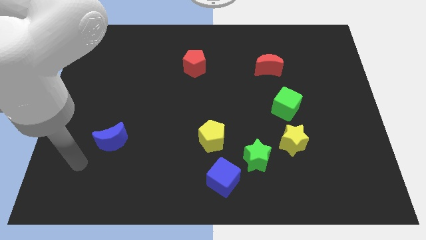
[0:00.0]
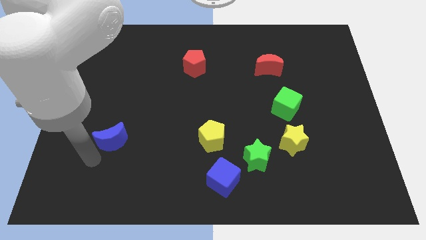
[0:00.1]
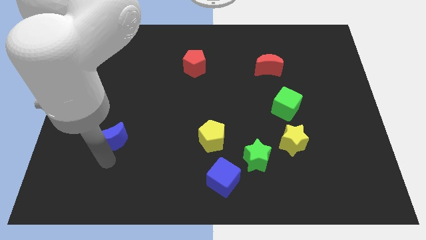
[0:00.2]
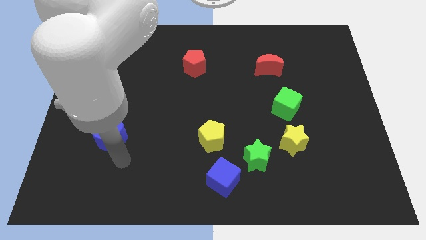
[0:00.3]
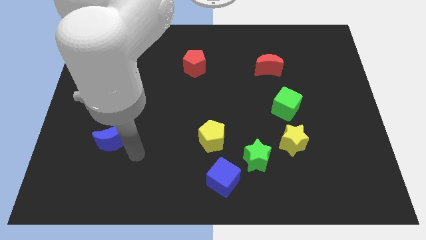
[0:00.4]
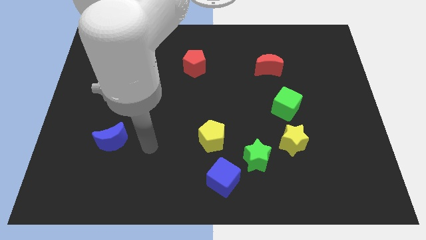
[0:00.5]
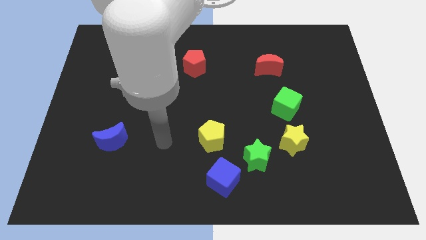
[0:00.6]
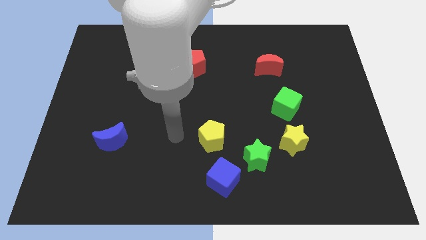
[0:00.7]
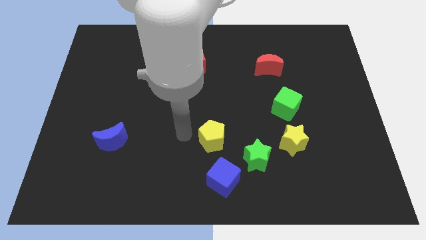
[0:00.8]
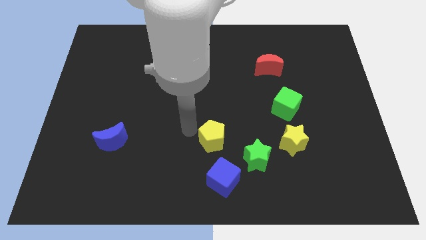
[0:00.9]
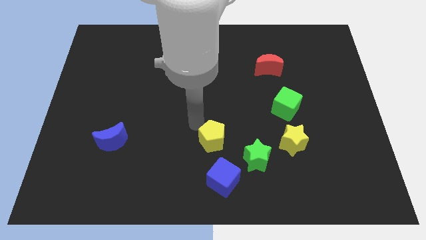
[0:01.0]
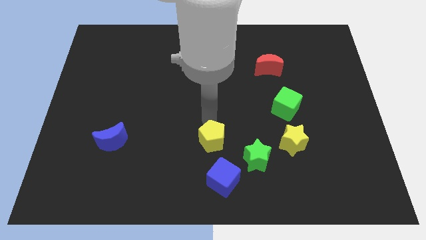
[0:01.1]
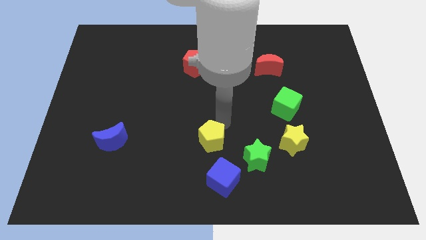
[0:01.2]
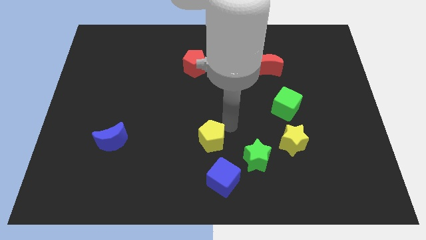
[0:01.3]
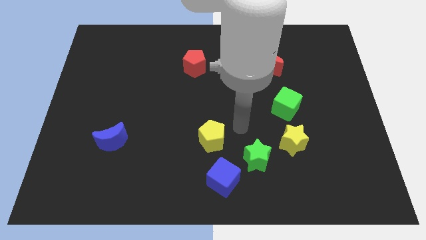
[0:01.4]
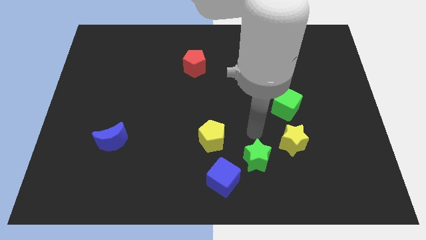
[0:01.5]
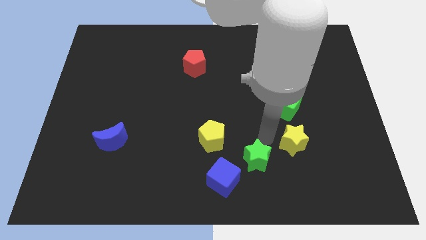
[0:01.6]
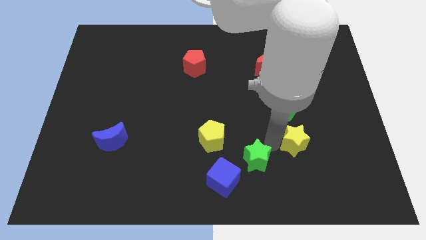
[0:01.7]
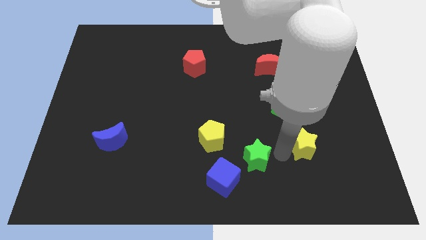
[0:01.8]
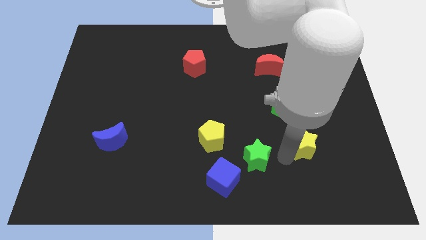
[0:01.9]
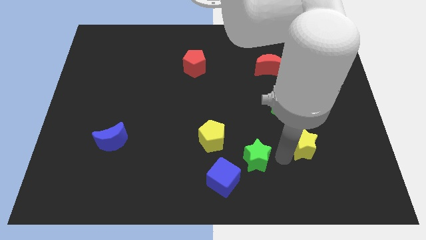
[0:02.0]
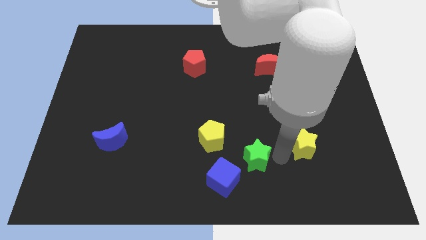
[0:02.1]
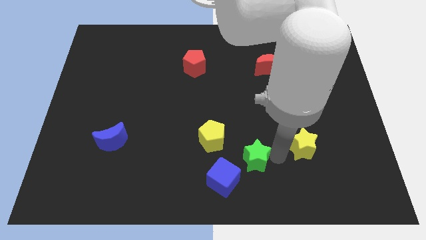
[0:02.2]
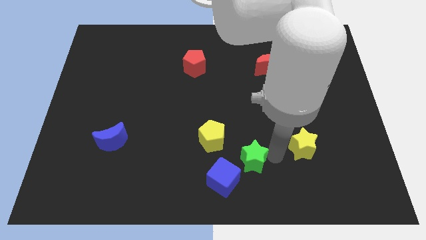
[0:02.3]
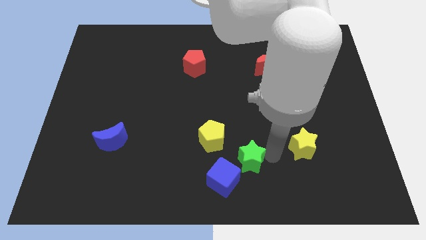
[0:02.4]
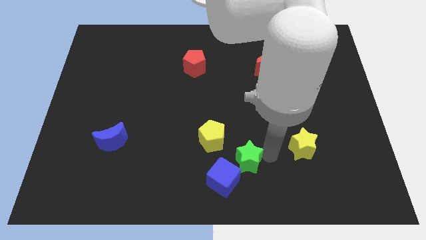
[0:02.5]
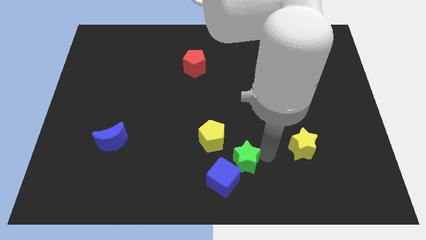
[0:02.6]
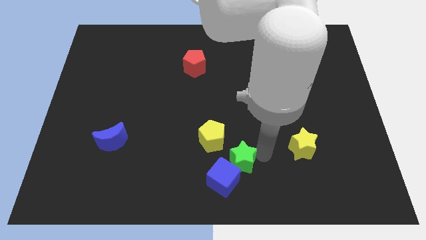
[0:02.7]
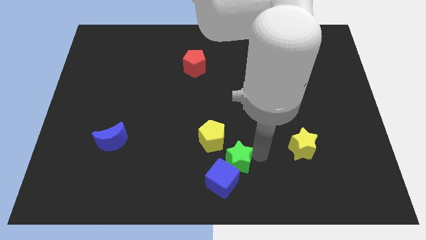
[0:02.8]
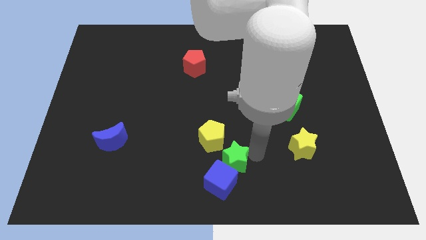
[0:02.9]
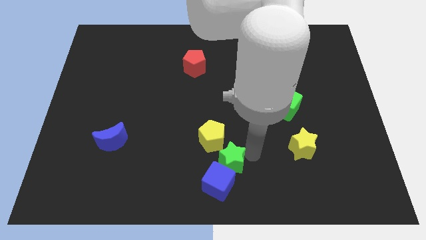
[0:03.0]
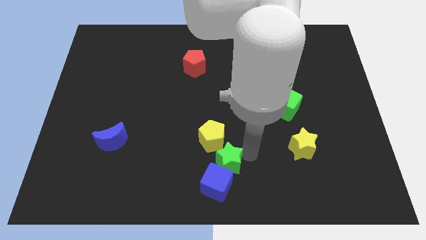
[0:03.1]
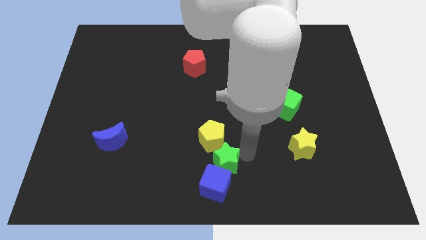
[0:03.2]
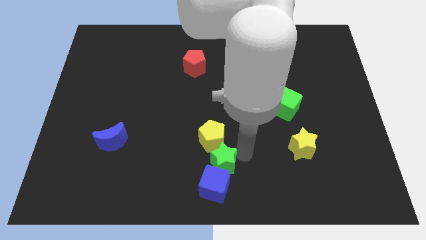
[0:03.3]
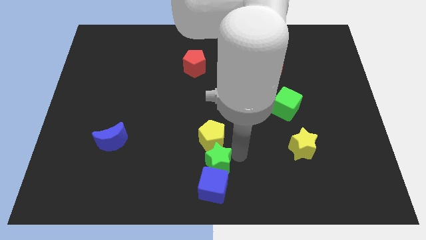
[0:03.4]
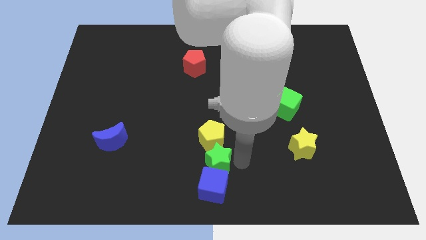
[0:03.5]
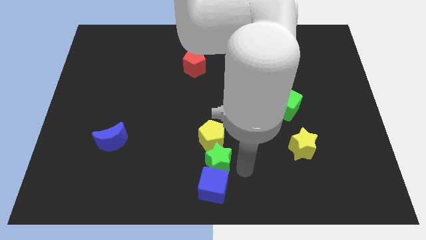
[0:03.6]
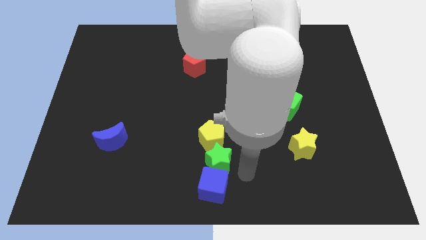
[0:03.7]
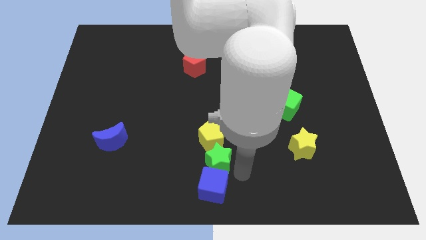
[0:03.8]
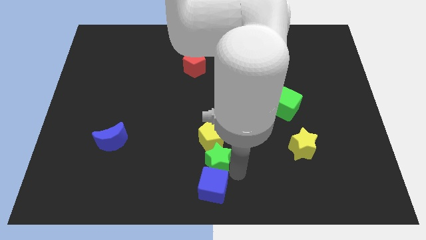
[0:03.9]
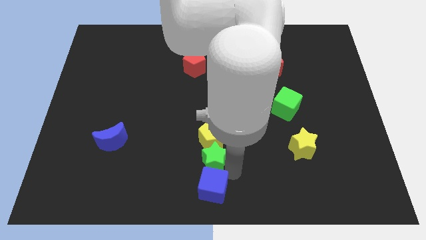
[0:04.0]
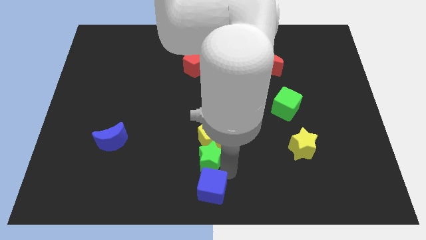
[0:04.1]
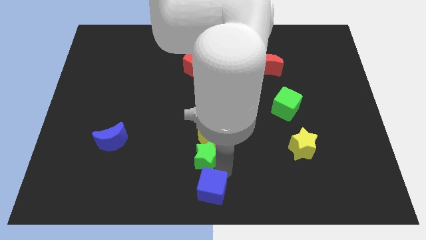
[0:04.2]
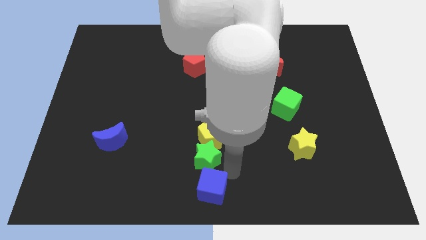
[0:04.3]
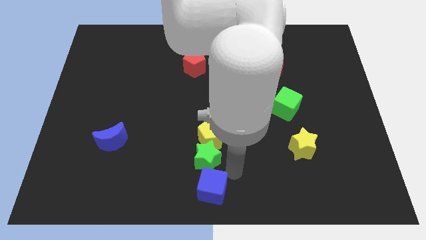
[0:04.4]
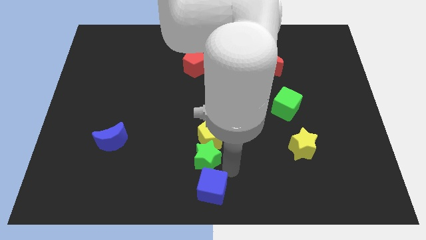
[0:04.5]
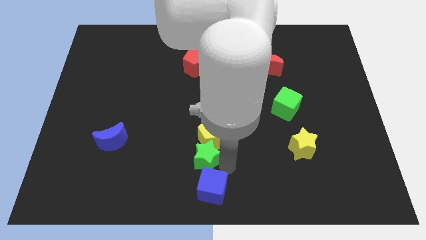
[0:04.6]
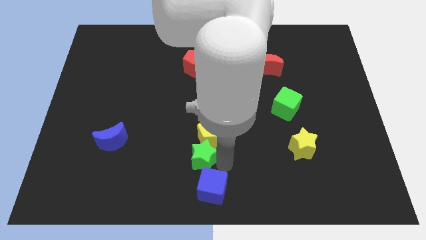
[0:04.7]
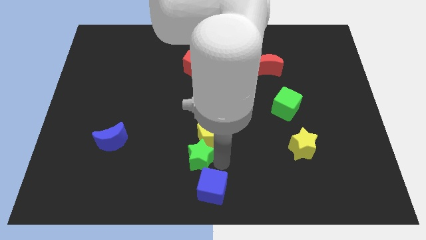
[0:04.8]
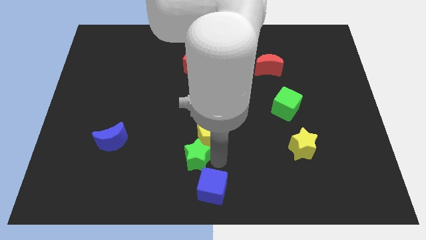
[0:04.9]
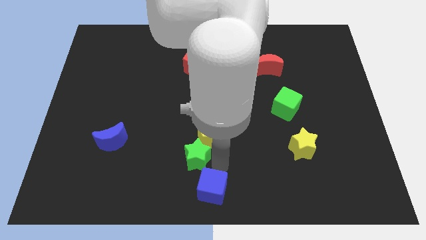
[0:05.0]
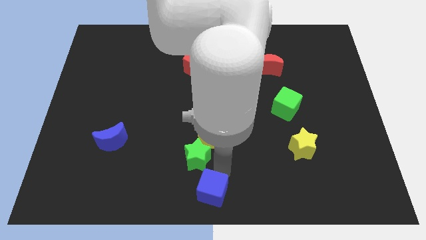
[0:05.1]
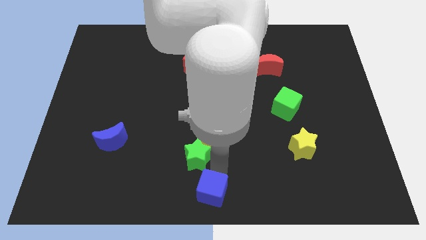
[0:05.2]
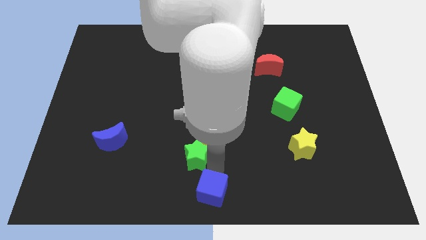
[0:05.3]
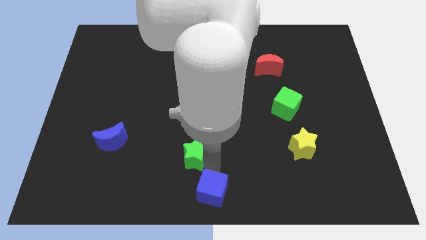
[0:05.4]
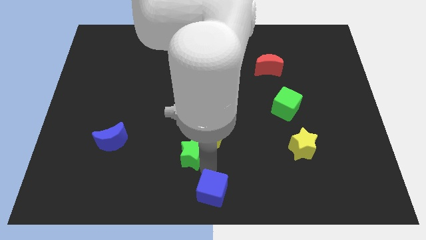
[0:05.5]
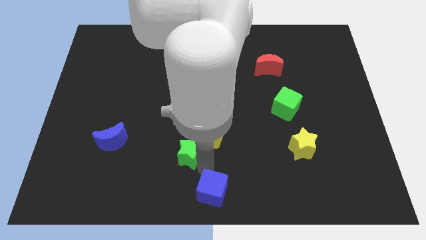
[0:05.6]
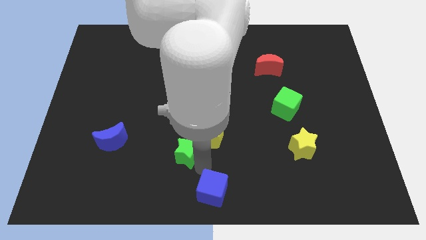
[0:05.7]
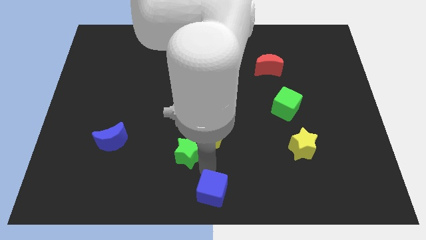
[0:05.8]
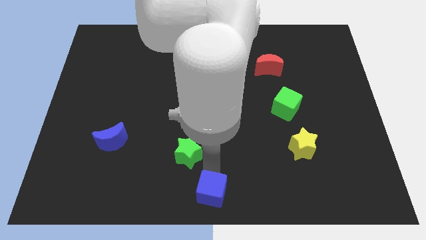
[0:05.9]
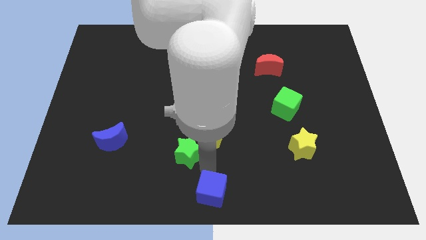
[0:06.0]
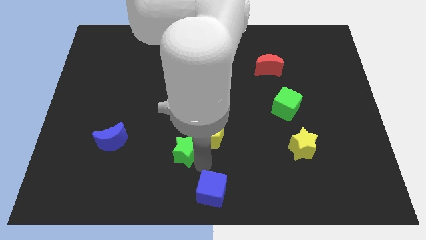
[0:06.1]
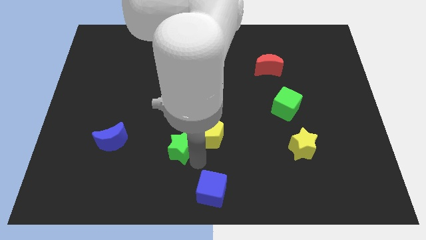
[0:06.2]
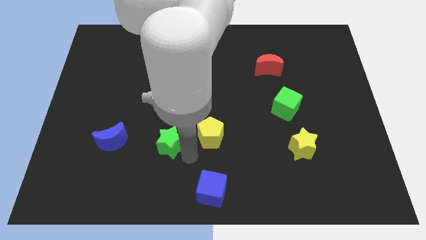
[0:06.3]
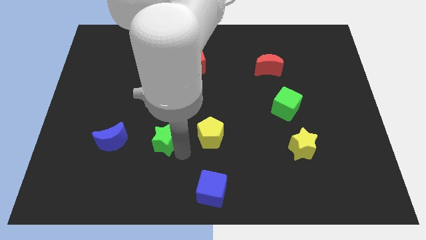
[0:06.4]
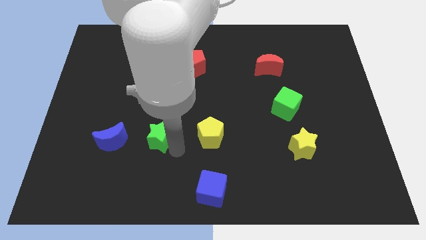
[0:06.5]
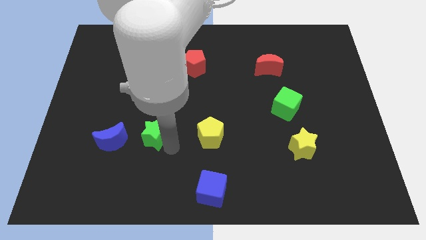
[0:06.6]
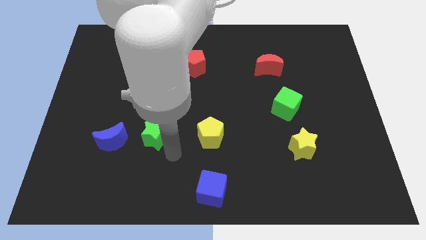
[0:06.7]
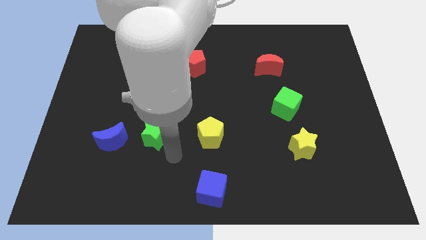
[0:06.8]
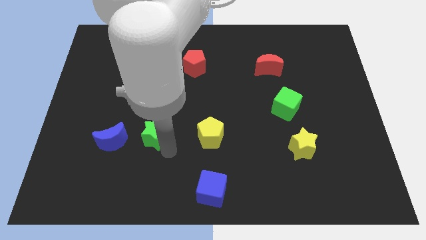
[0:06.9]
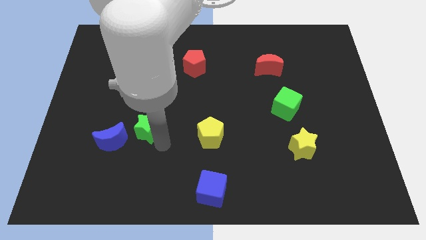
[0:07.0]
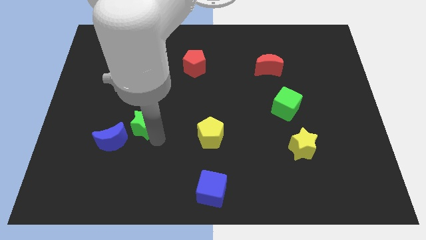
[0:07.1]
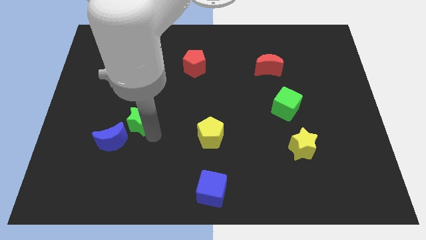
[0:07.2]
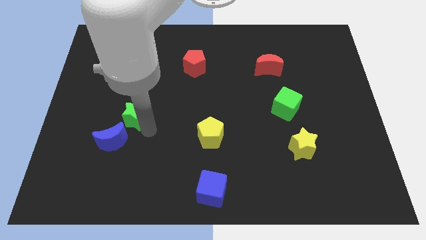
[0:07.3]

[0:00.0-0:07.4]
put the green star above the blue moon

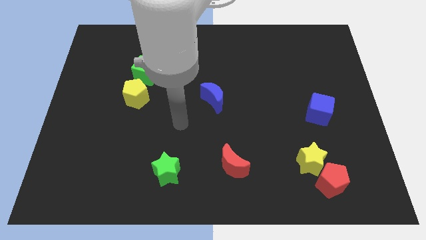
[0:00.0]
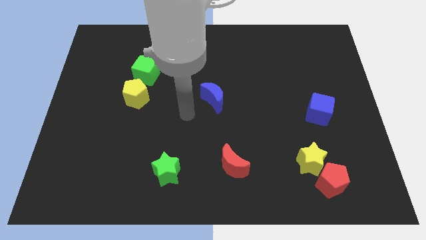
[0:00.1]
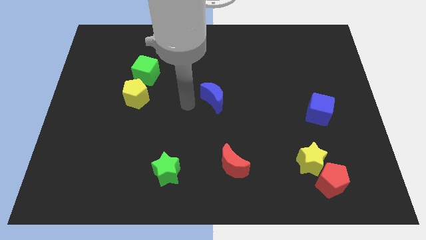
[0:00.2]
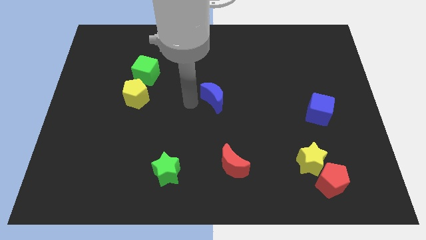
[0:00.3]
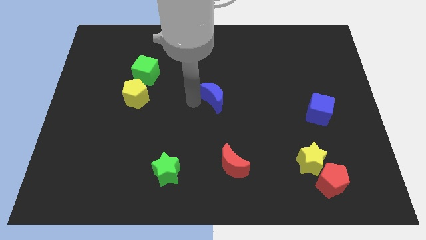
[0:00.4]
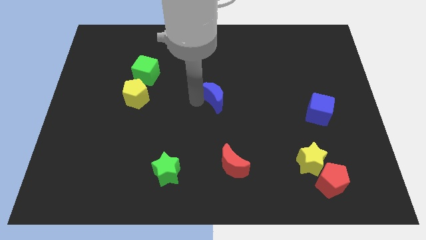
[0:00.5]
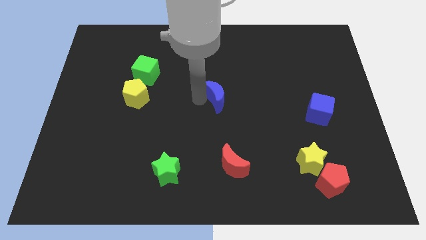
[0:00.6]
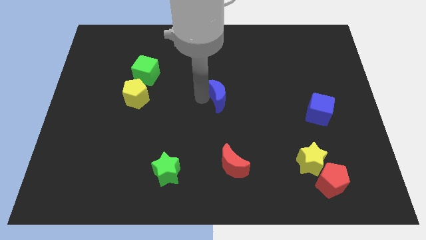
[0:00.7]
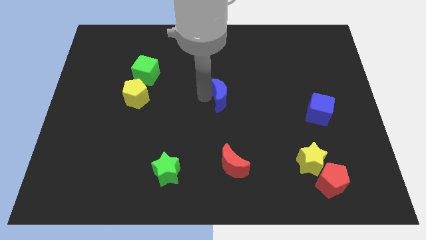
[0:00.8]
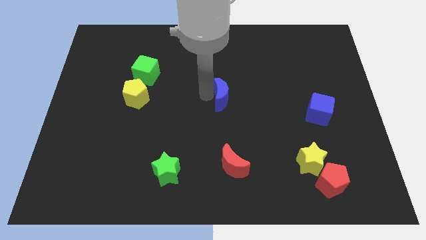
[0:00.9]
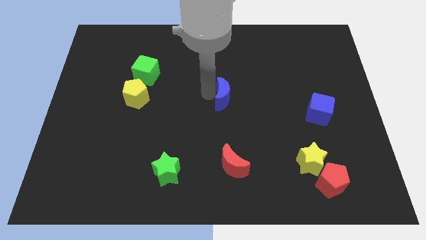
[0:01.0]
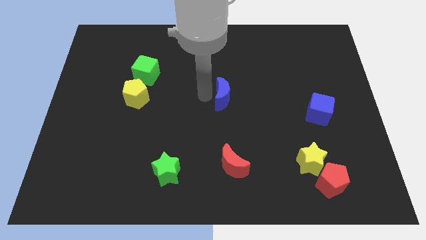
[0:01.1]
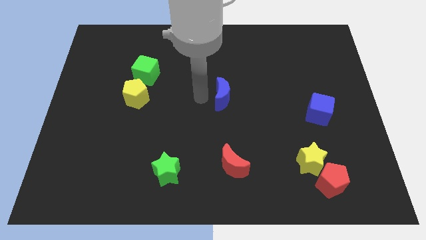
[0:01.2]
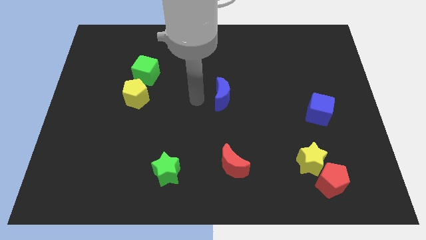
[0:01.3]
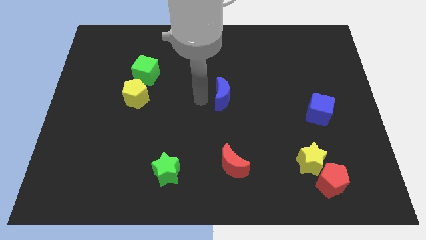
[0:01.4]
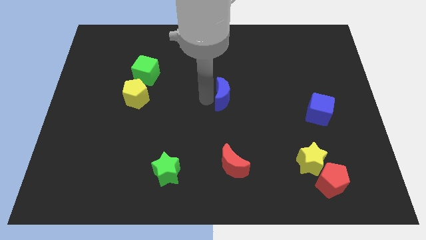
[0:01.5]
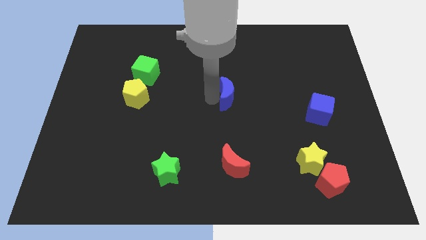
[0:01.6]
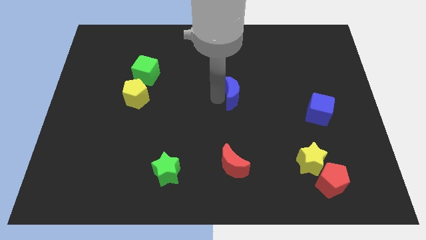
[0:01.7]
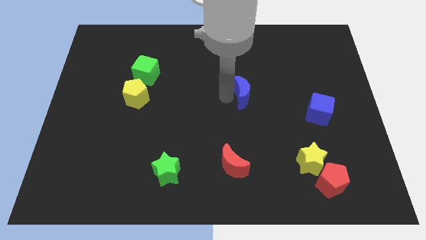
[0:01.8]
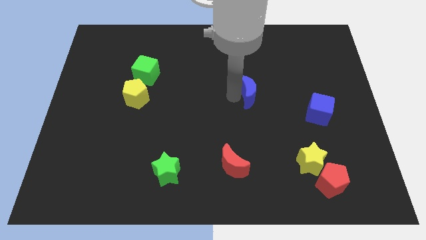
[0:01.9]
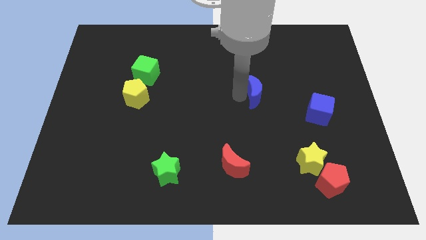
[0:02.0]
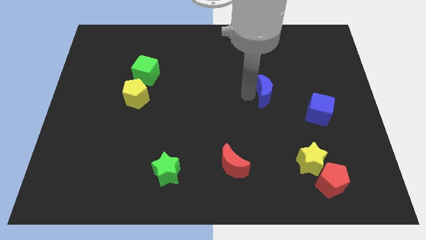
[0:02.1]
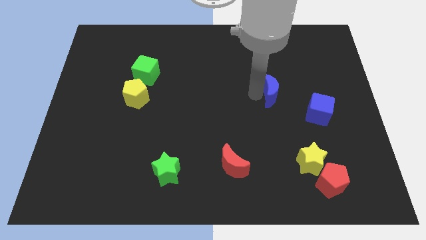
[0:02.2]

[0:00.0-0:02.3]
push the blue moon to the top left side of the blue cube
